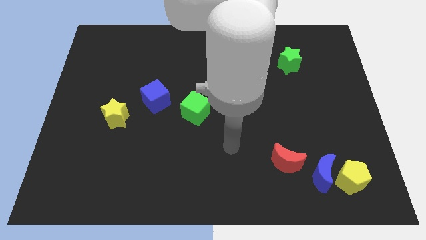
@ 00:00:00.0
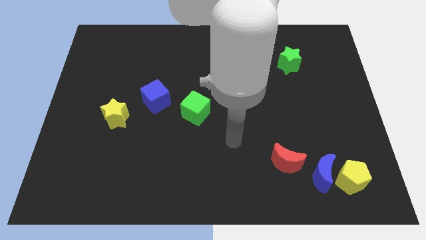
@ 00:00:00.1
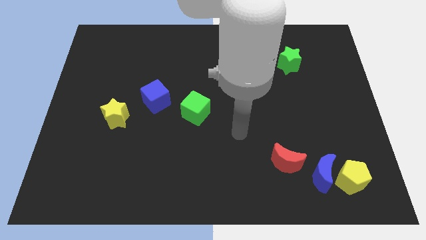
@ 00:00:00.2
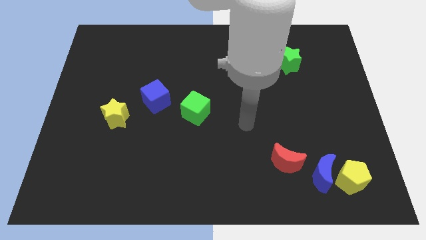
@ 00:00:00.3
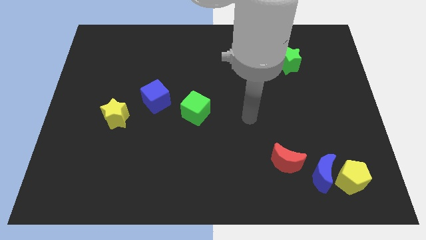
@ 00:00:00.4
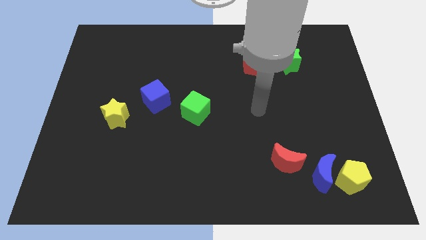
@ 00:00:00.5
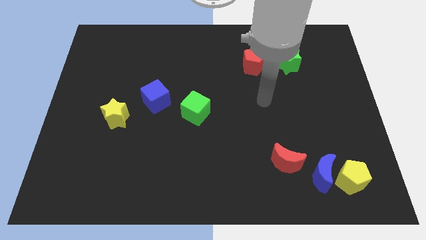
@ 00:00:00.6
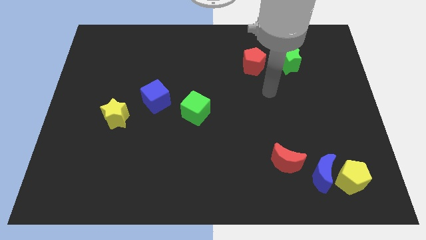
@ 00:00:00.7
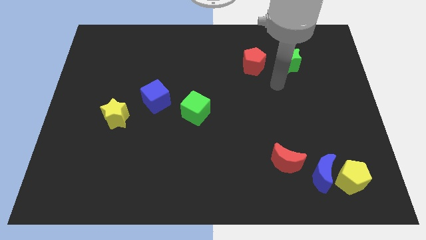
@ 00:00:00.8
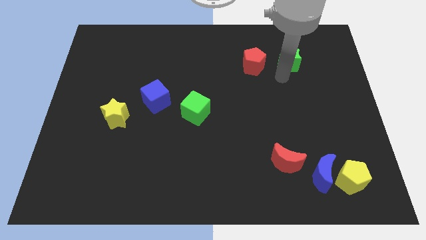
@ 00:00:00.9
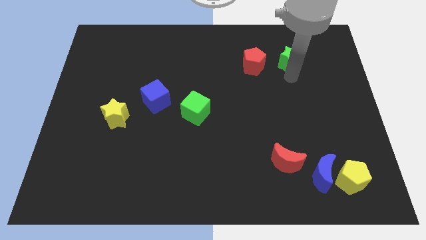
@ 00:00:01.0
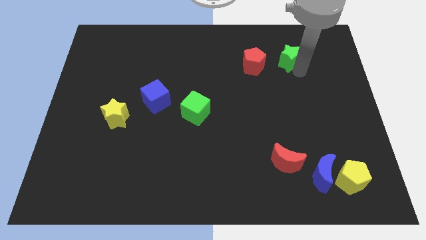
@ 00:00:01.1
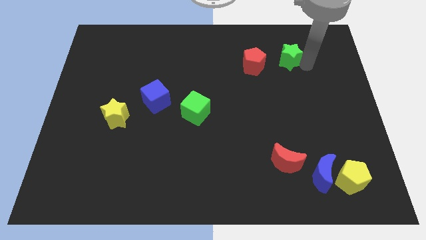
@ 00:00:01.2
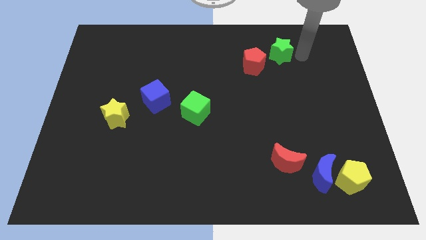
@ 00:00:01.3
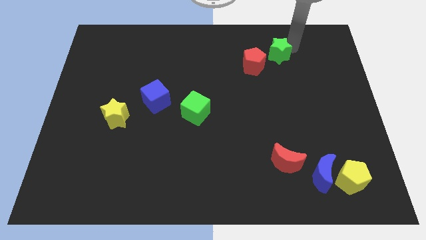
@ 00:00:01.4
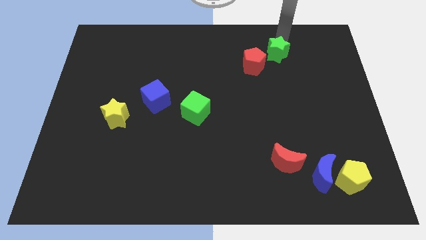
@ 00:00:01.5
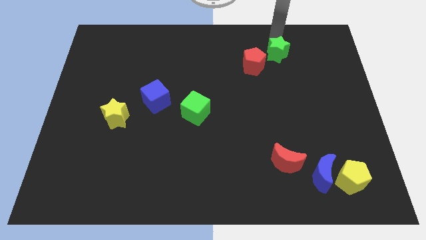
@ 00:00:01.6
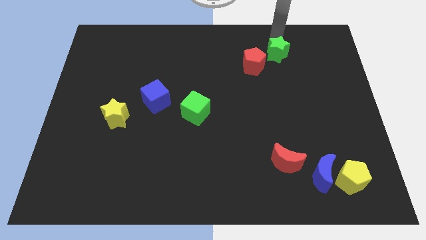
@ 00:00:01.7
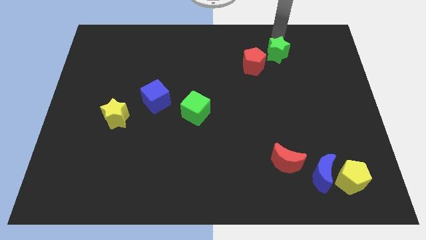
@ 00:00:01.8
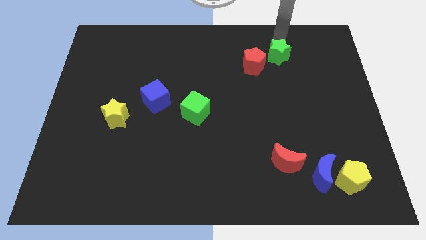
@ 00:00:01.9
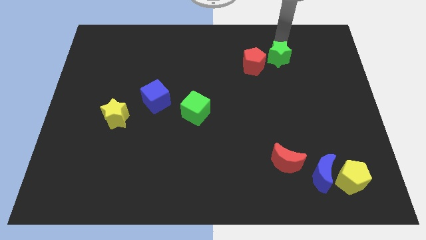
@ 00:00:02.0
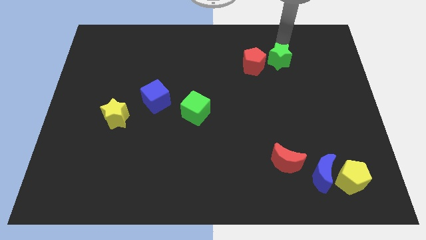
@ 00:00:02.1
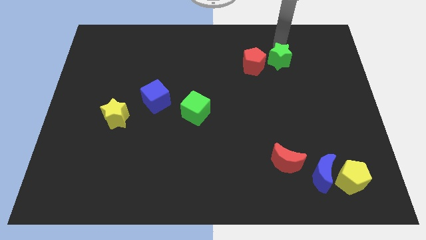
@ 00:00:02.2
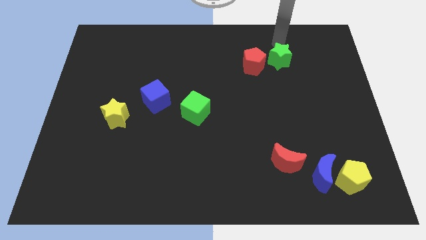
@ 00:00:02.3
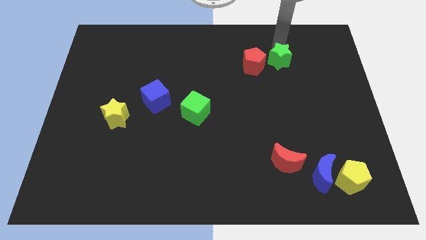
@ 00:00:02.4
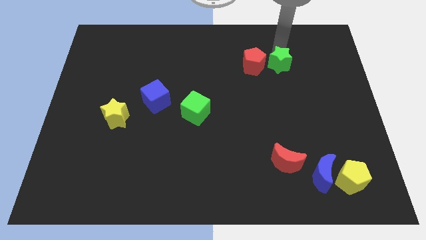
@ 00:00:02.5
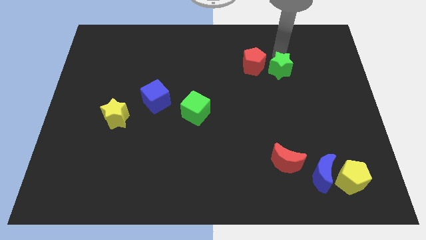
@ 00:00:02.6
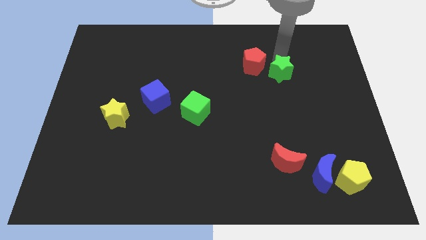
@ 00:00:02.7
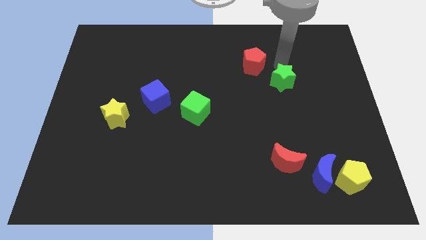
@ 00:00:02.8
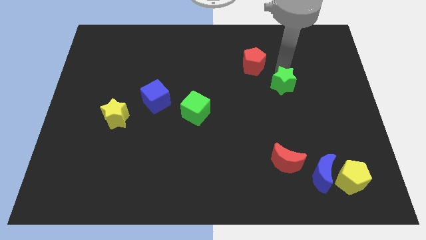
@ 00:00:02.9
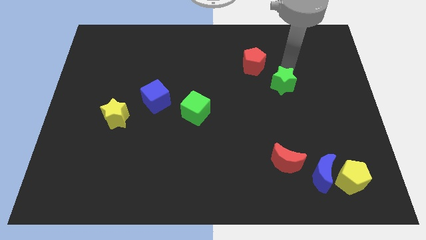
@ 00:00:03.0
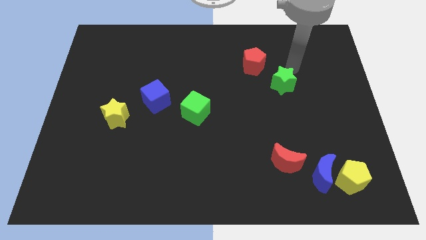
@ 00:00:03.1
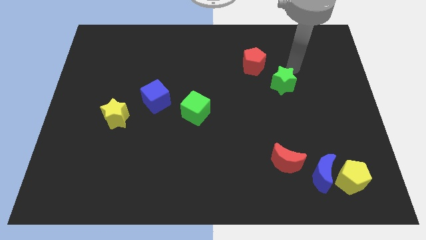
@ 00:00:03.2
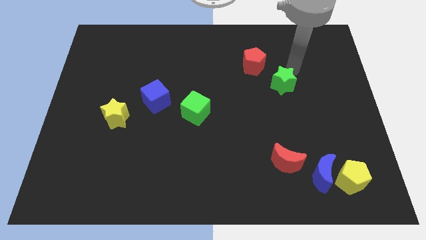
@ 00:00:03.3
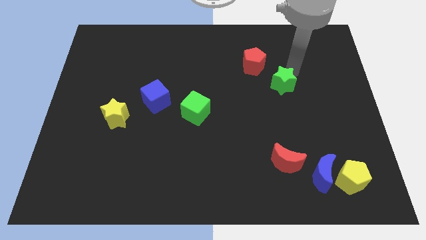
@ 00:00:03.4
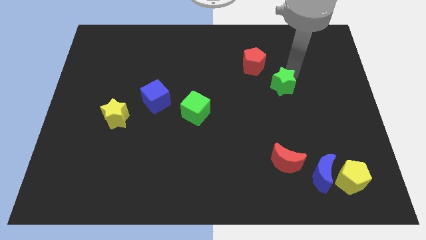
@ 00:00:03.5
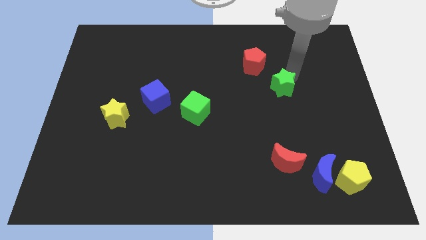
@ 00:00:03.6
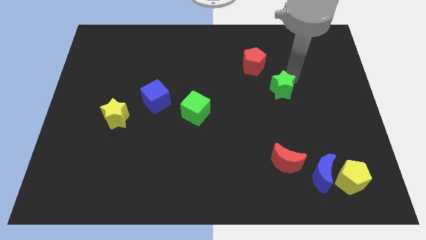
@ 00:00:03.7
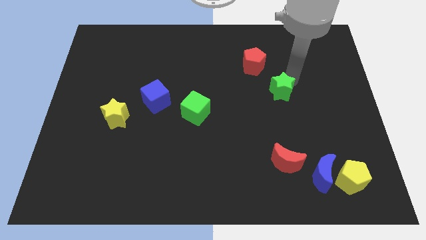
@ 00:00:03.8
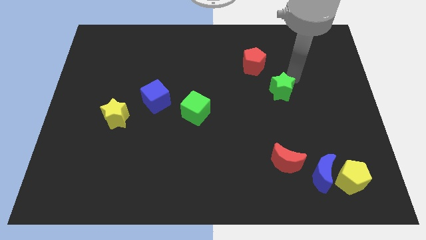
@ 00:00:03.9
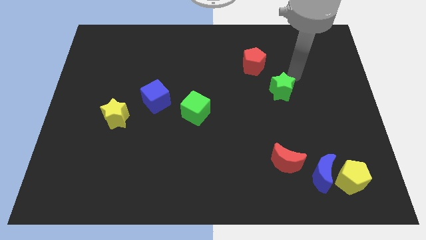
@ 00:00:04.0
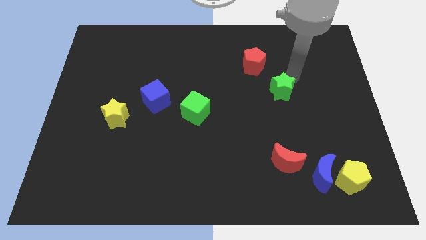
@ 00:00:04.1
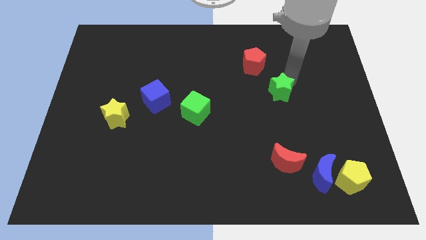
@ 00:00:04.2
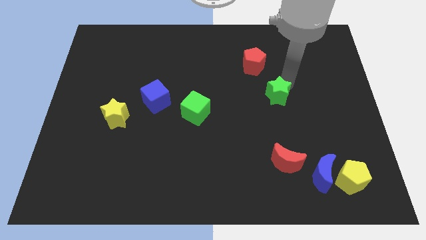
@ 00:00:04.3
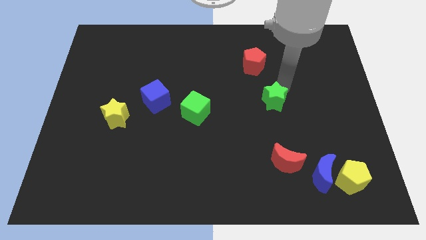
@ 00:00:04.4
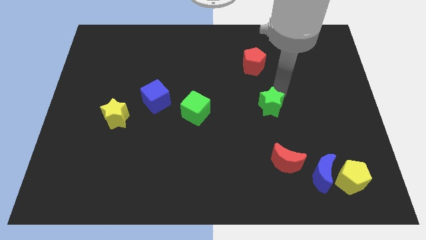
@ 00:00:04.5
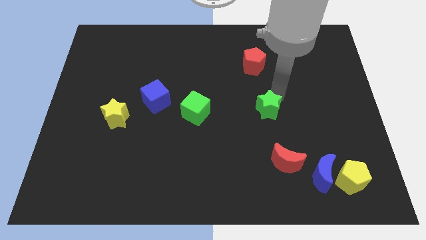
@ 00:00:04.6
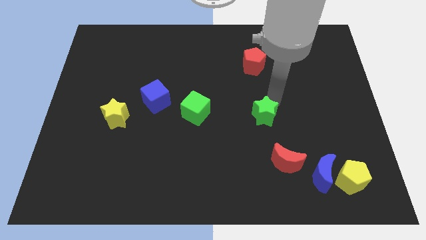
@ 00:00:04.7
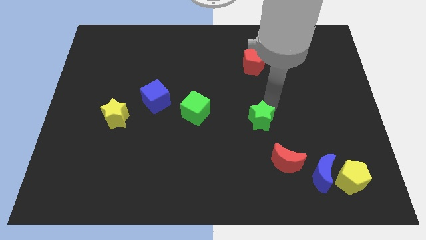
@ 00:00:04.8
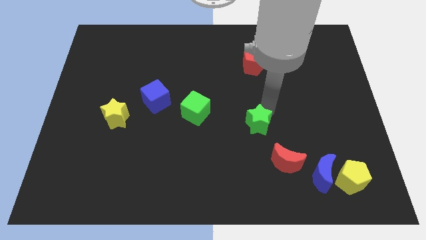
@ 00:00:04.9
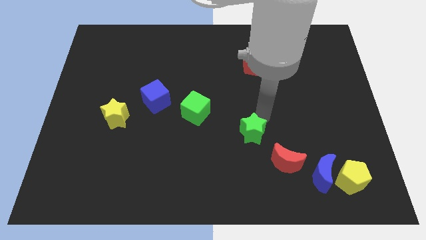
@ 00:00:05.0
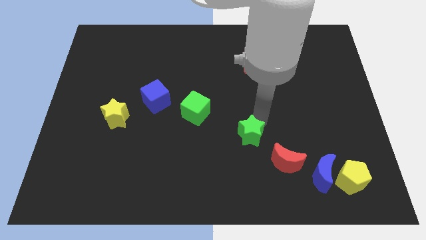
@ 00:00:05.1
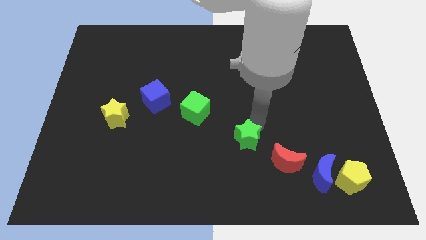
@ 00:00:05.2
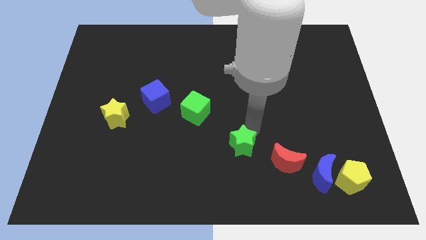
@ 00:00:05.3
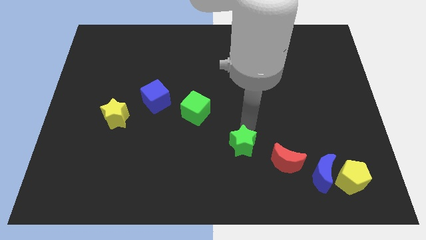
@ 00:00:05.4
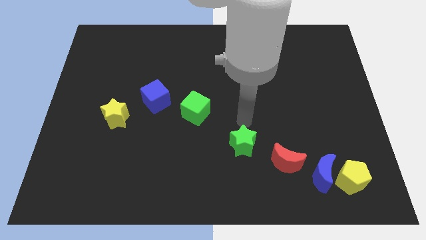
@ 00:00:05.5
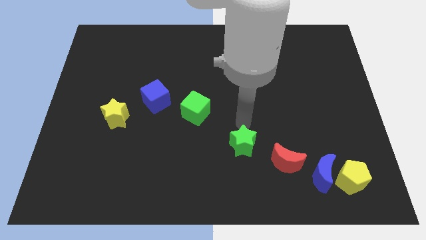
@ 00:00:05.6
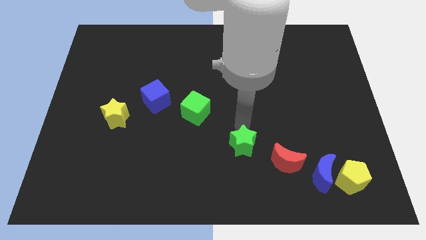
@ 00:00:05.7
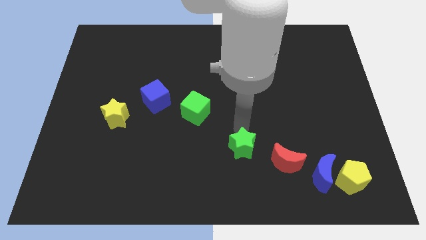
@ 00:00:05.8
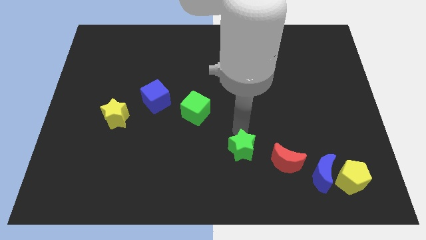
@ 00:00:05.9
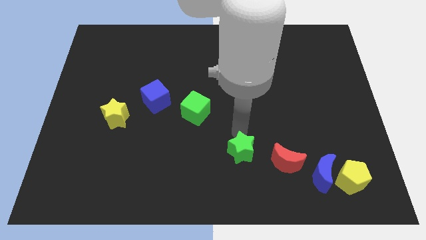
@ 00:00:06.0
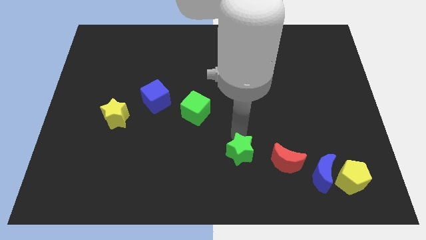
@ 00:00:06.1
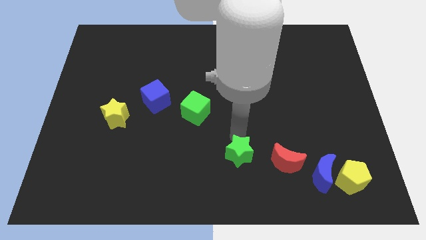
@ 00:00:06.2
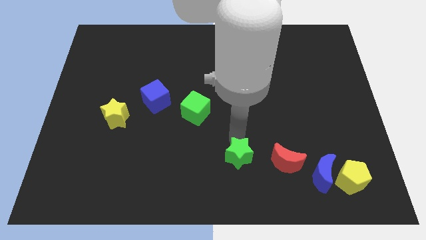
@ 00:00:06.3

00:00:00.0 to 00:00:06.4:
slide the green star to the bottom

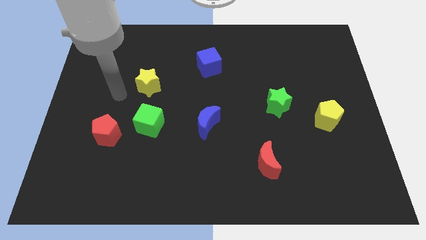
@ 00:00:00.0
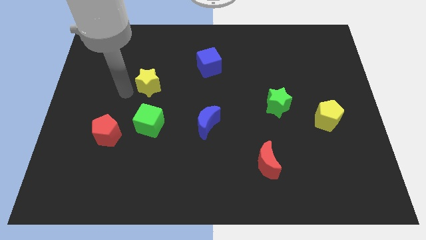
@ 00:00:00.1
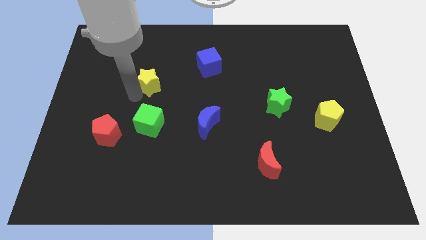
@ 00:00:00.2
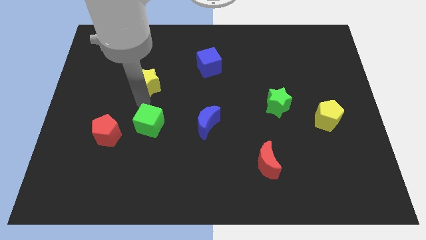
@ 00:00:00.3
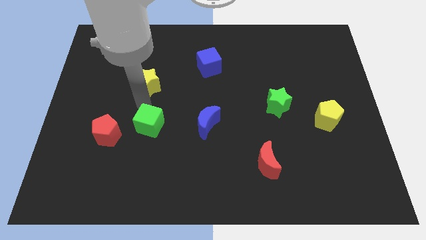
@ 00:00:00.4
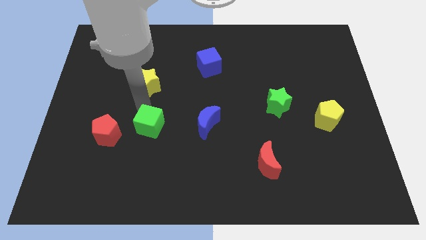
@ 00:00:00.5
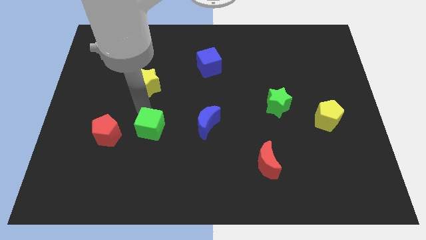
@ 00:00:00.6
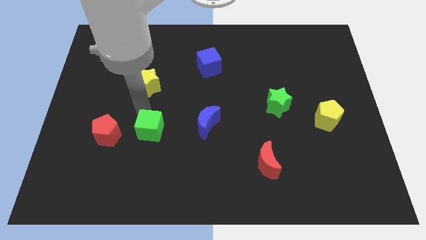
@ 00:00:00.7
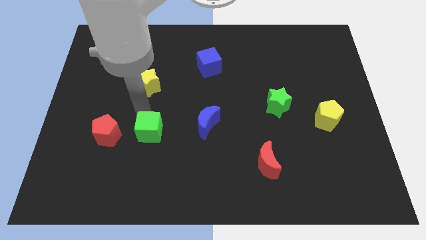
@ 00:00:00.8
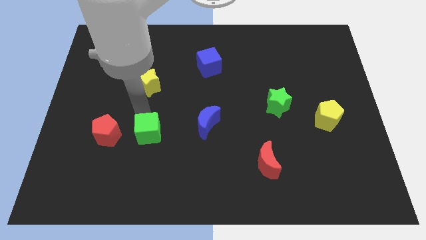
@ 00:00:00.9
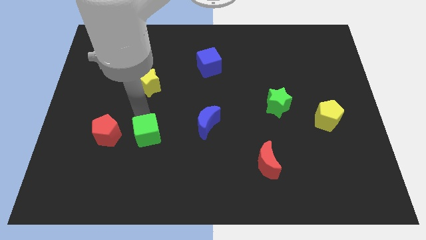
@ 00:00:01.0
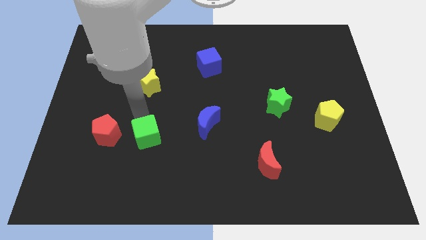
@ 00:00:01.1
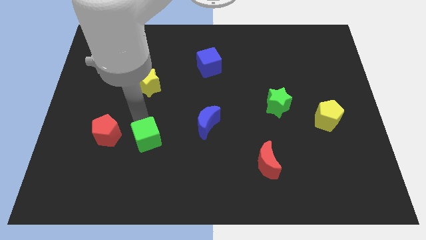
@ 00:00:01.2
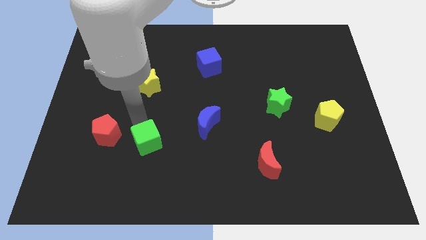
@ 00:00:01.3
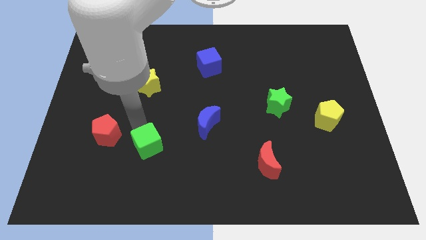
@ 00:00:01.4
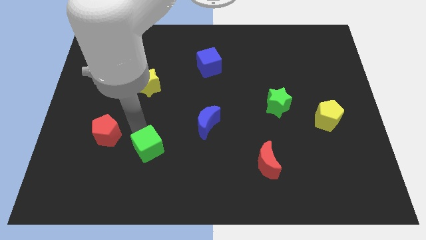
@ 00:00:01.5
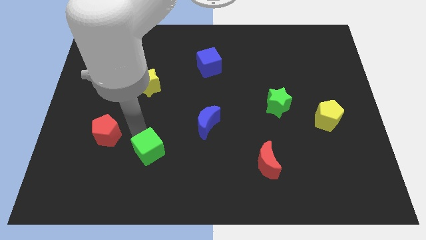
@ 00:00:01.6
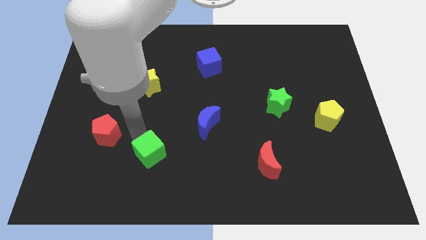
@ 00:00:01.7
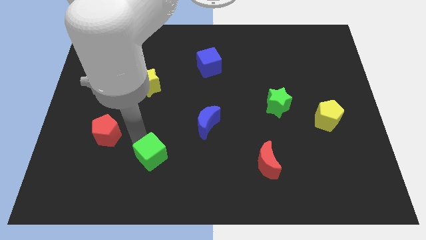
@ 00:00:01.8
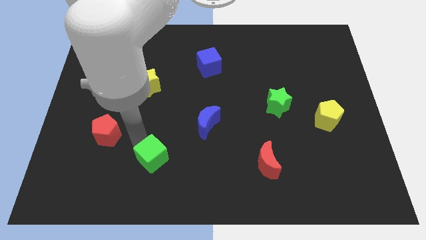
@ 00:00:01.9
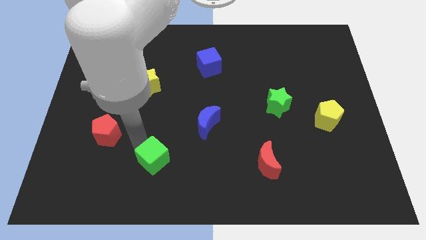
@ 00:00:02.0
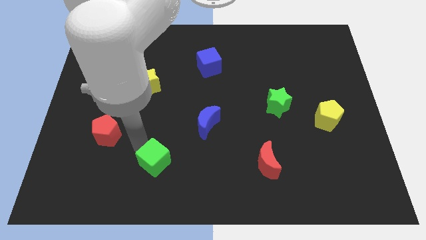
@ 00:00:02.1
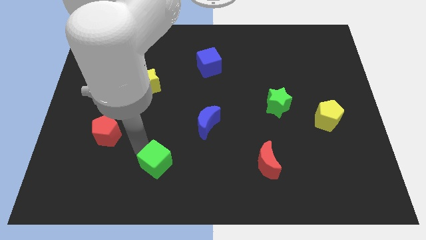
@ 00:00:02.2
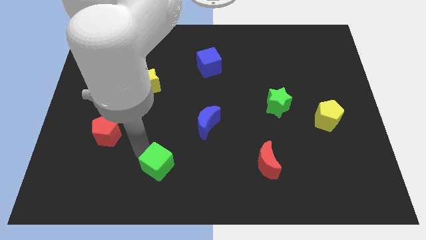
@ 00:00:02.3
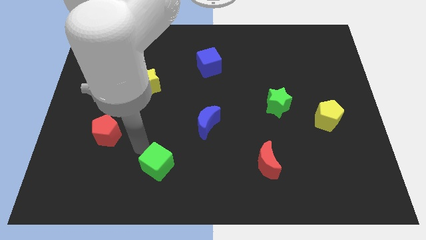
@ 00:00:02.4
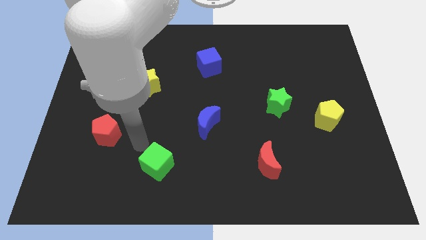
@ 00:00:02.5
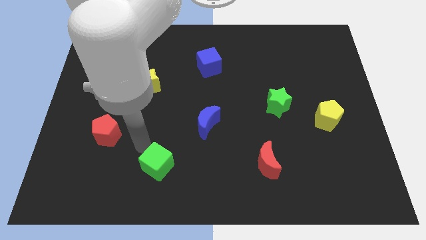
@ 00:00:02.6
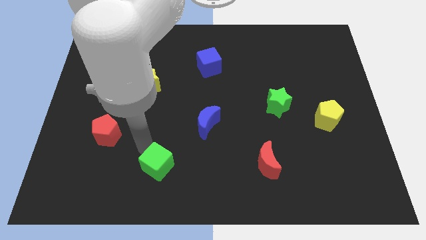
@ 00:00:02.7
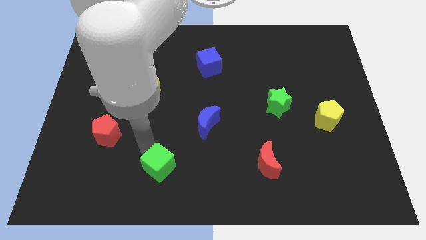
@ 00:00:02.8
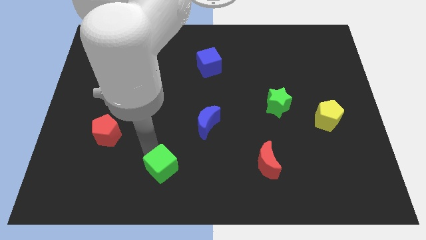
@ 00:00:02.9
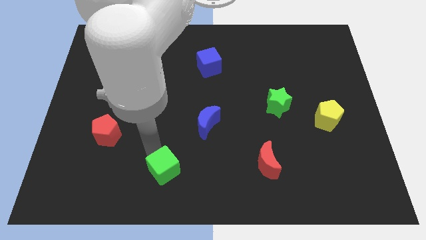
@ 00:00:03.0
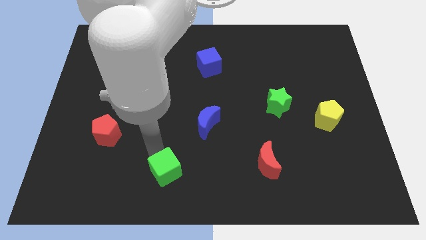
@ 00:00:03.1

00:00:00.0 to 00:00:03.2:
push the green cube to the bottom
